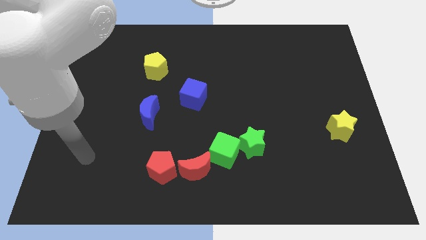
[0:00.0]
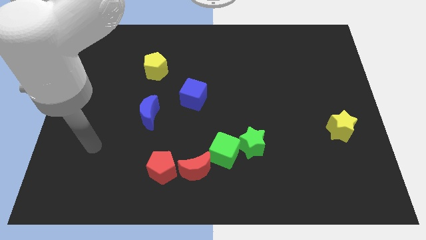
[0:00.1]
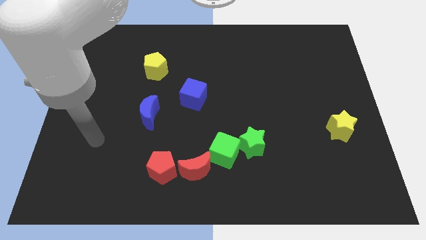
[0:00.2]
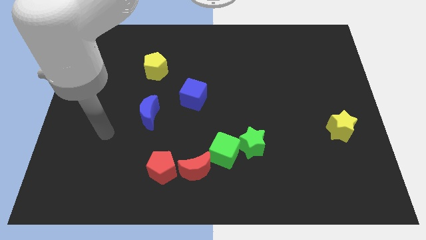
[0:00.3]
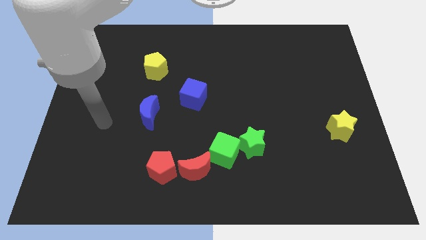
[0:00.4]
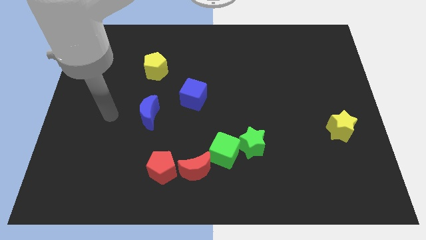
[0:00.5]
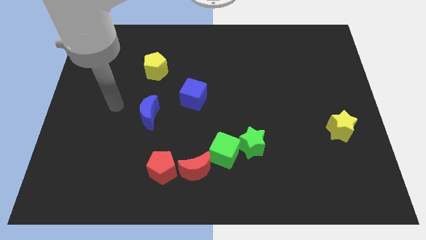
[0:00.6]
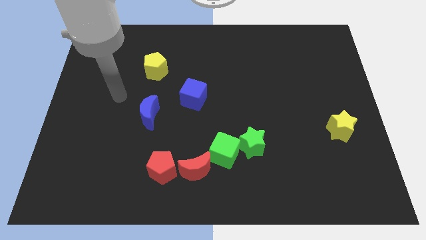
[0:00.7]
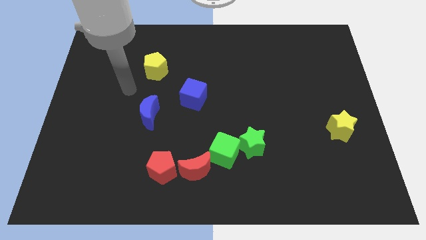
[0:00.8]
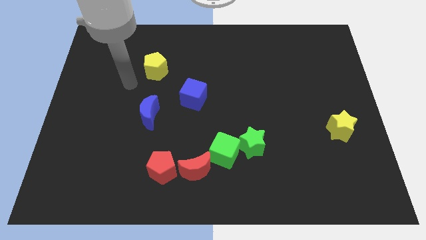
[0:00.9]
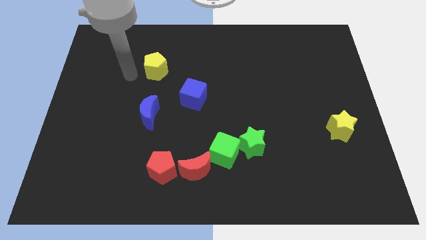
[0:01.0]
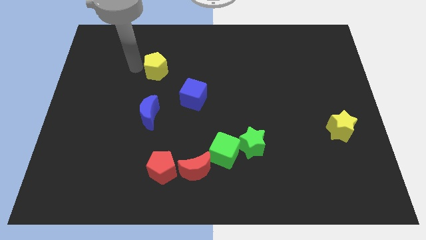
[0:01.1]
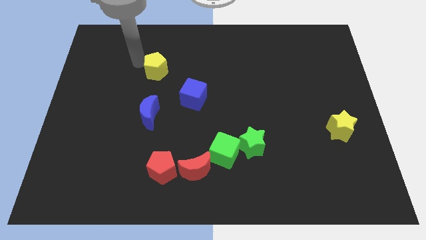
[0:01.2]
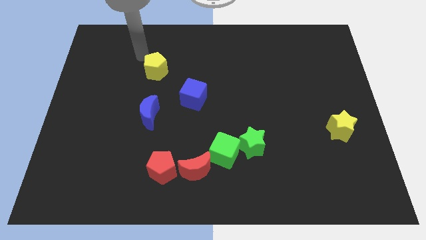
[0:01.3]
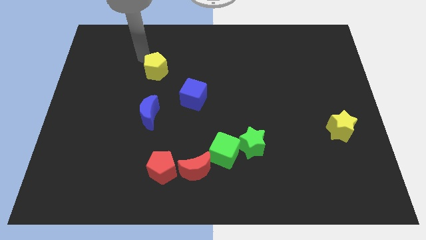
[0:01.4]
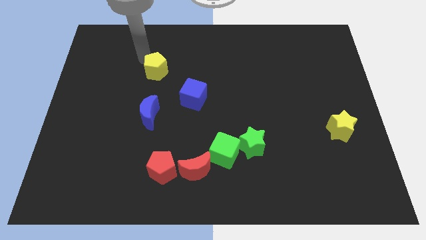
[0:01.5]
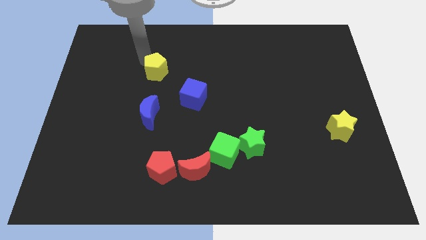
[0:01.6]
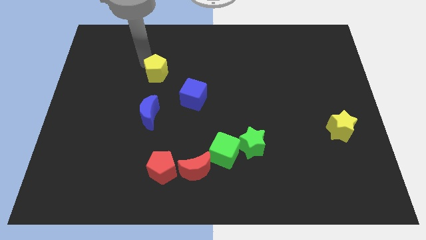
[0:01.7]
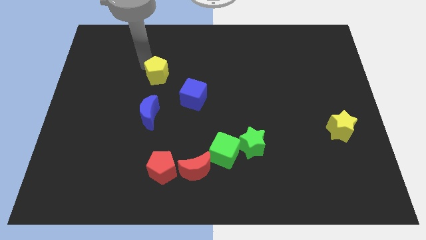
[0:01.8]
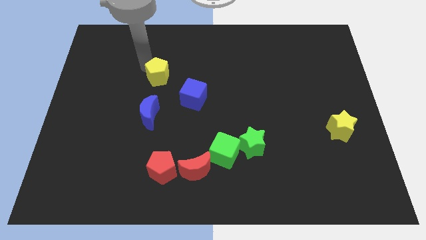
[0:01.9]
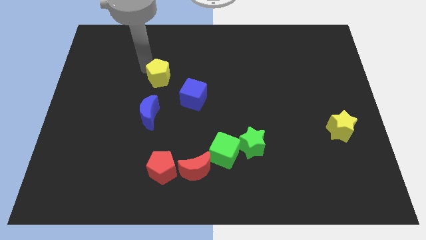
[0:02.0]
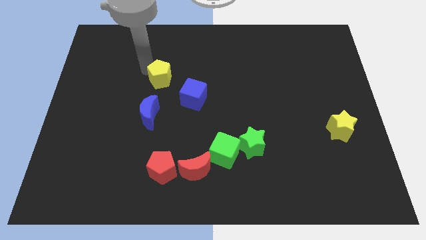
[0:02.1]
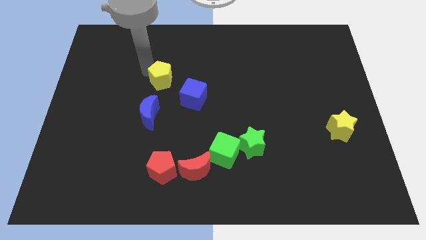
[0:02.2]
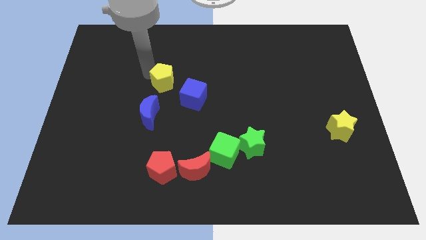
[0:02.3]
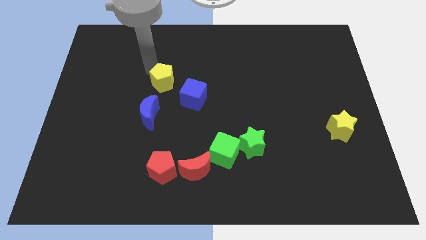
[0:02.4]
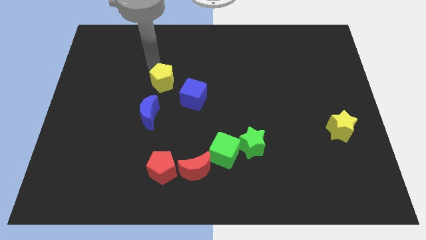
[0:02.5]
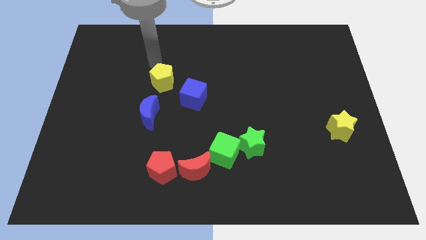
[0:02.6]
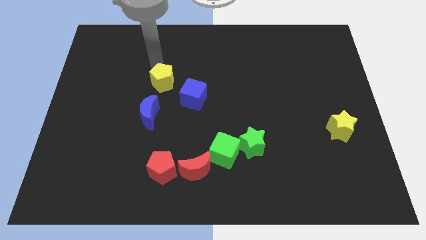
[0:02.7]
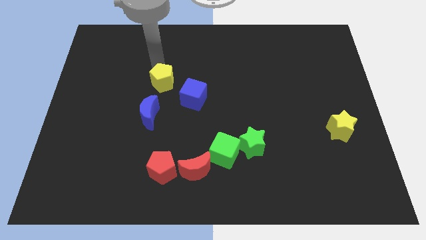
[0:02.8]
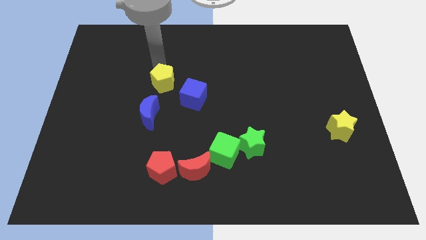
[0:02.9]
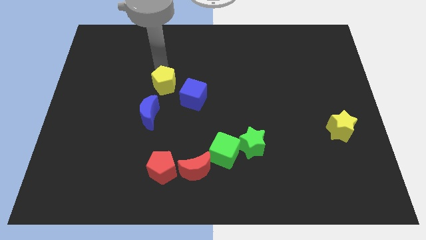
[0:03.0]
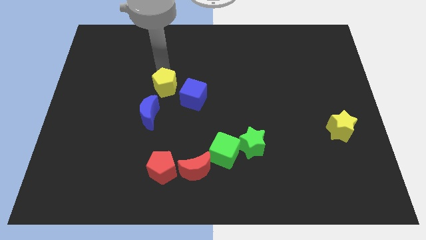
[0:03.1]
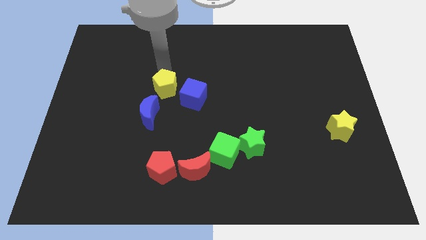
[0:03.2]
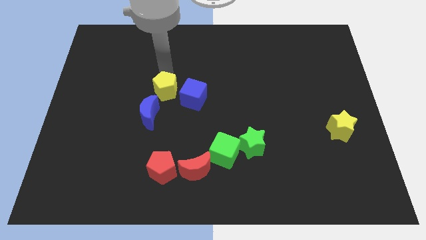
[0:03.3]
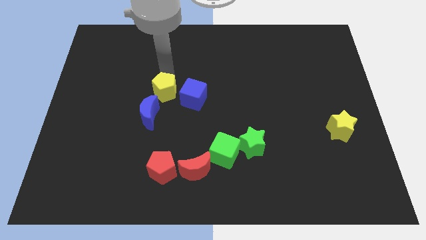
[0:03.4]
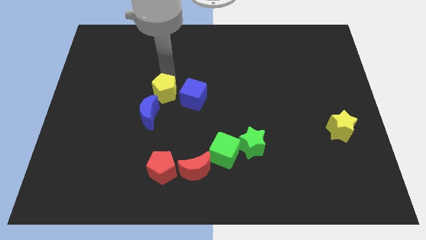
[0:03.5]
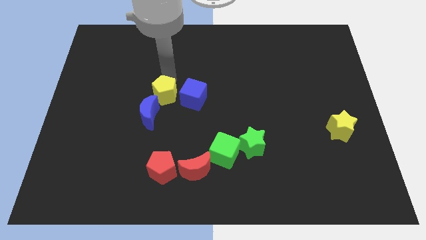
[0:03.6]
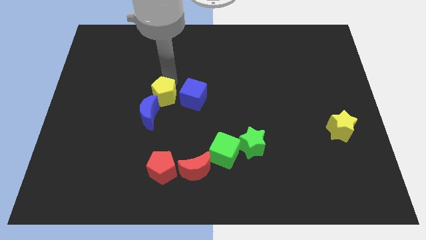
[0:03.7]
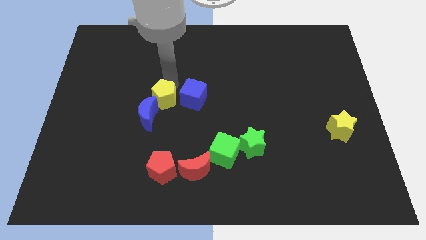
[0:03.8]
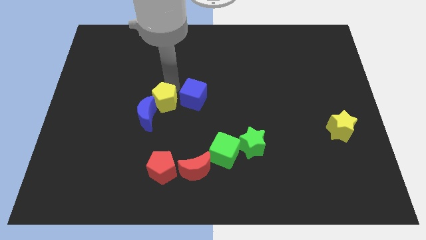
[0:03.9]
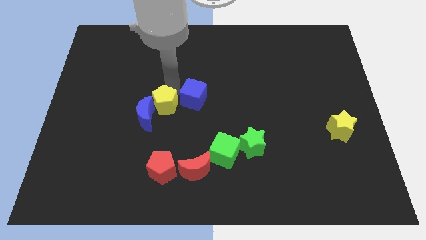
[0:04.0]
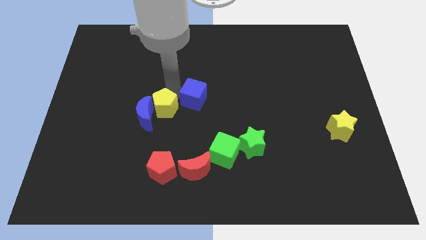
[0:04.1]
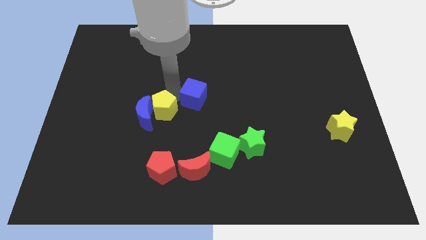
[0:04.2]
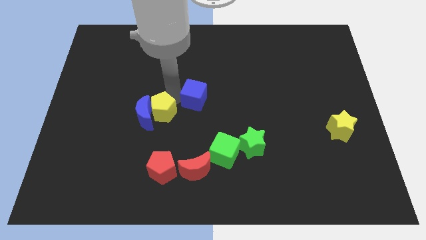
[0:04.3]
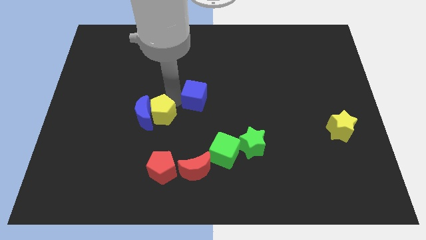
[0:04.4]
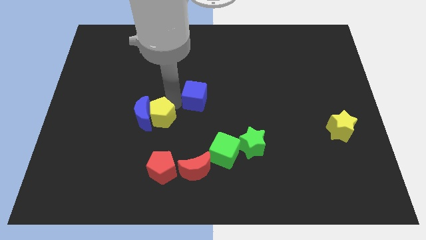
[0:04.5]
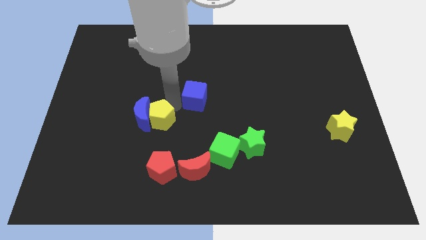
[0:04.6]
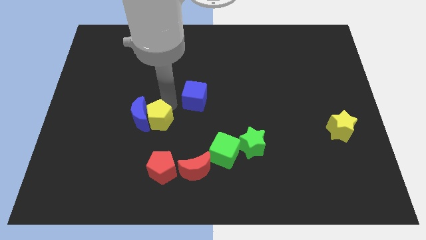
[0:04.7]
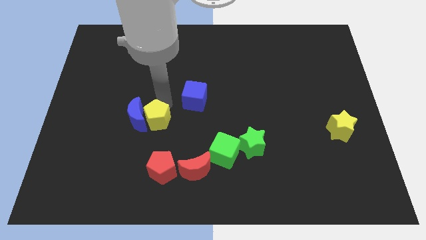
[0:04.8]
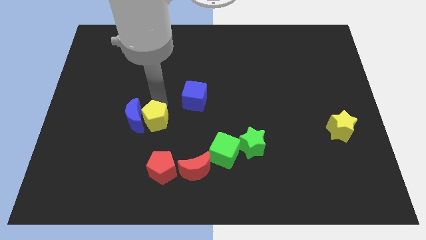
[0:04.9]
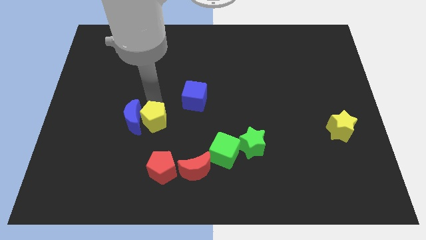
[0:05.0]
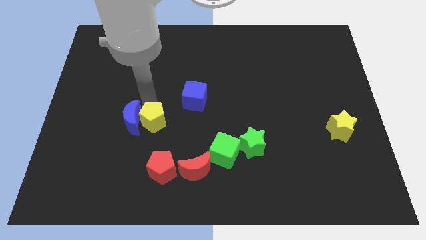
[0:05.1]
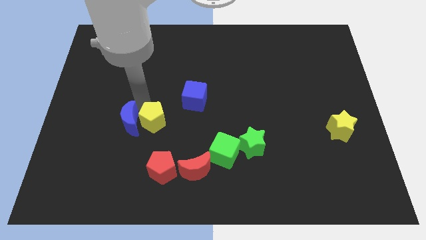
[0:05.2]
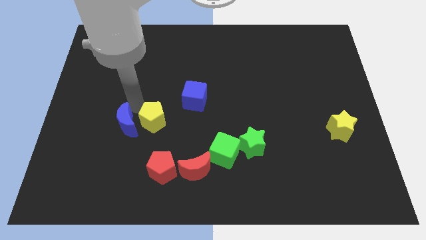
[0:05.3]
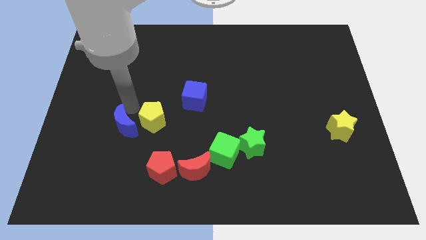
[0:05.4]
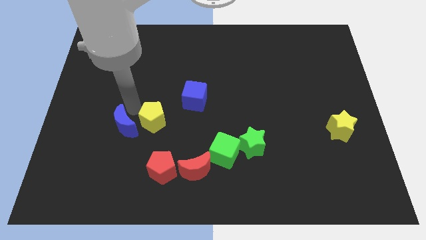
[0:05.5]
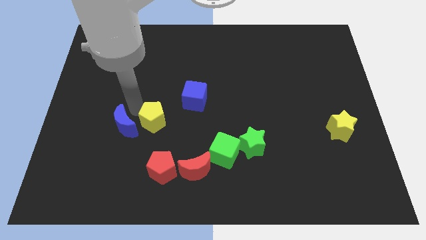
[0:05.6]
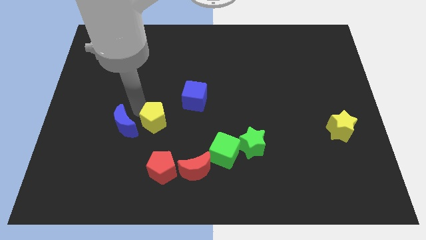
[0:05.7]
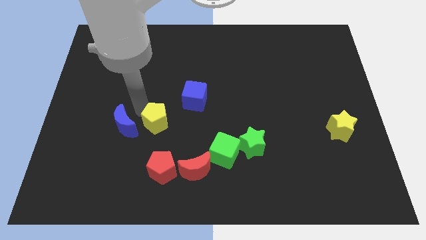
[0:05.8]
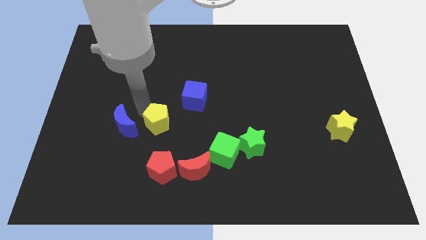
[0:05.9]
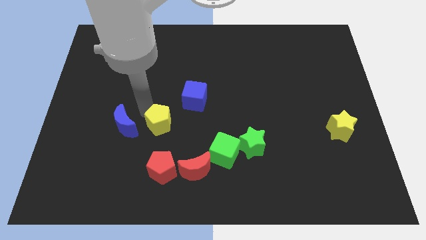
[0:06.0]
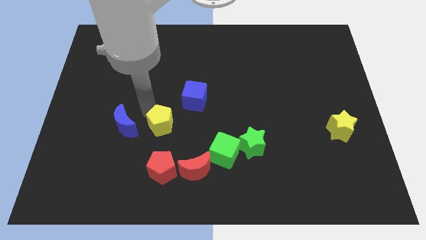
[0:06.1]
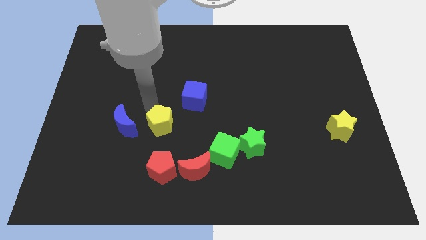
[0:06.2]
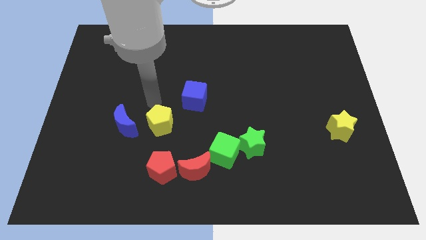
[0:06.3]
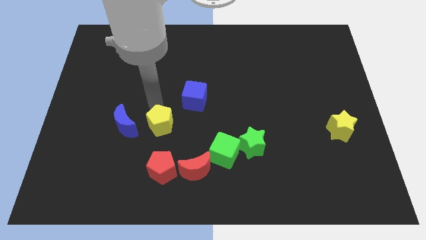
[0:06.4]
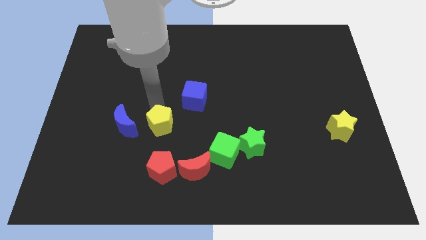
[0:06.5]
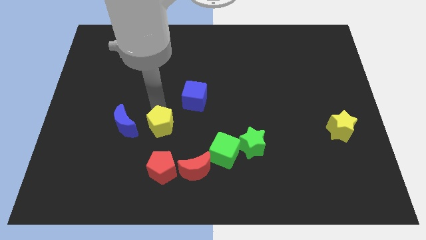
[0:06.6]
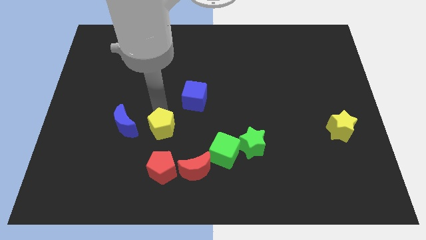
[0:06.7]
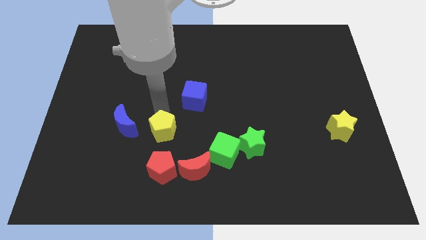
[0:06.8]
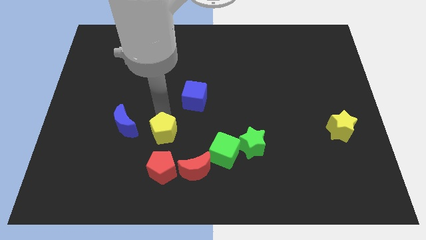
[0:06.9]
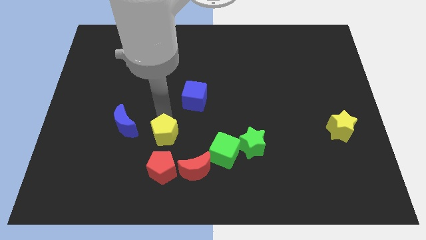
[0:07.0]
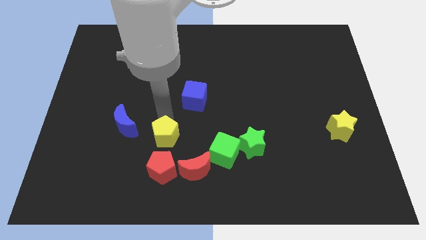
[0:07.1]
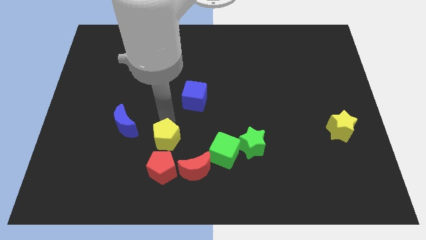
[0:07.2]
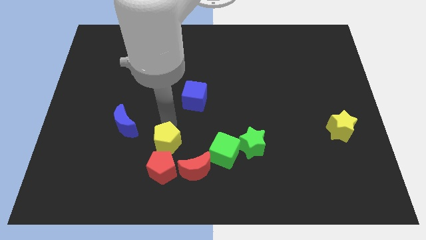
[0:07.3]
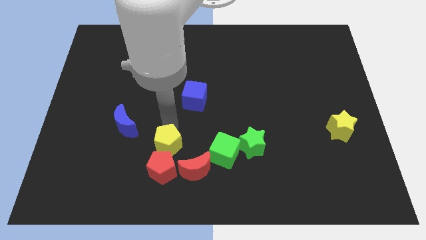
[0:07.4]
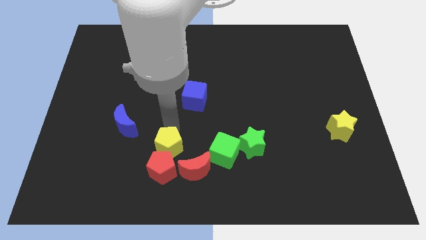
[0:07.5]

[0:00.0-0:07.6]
move the yellow pentagon next to the red pentagon
